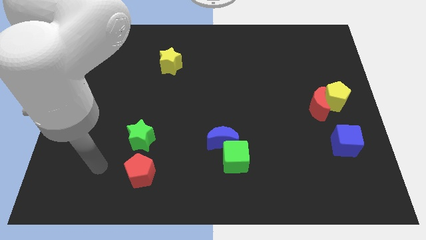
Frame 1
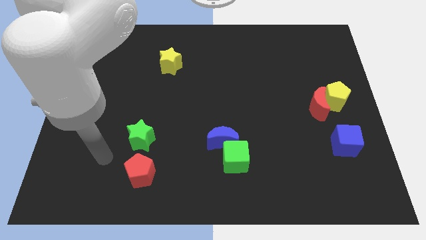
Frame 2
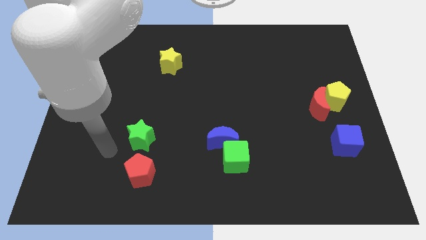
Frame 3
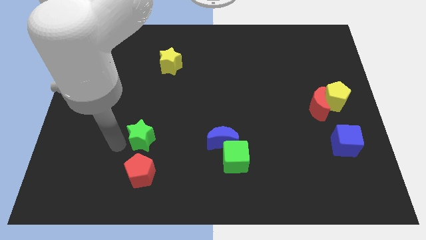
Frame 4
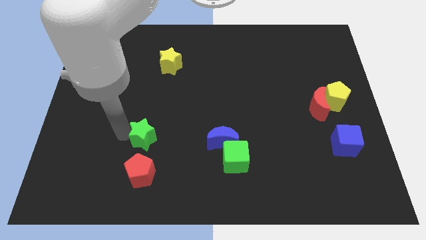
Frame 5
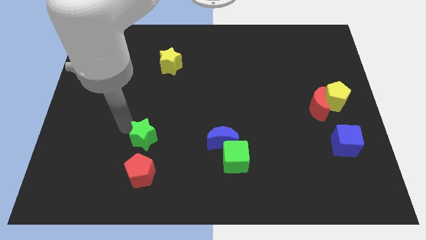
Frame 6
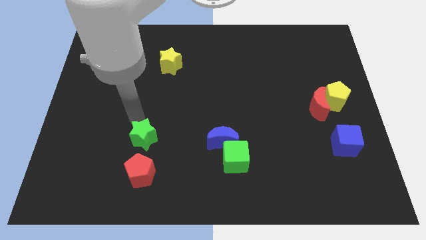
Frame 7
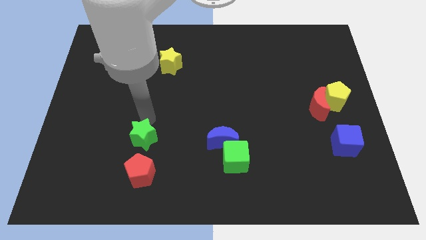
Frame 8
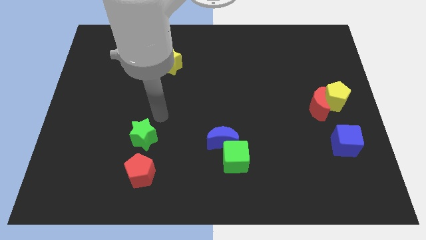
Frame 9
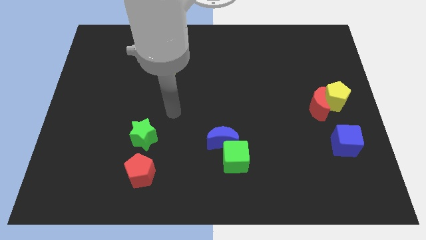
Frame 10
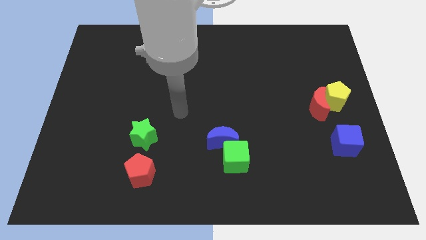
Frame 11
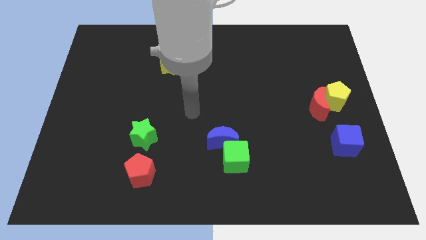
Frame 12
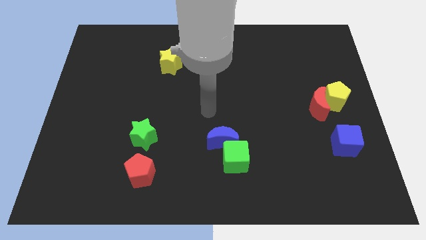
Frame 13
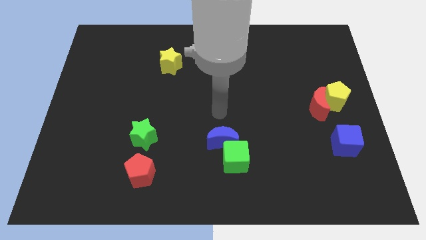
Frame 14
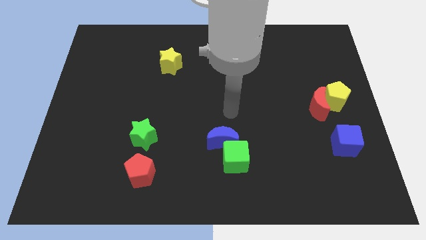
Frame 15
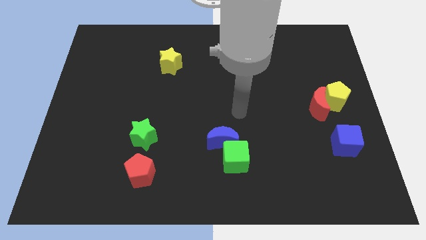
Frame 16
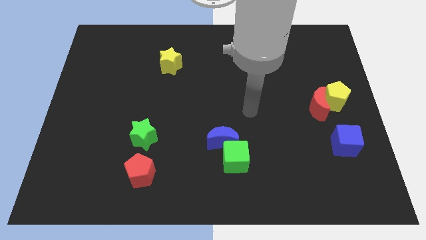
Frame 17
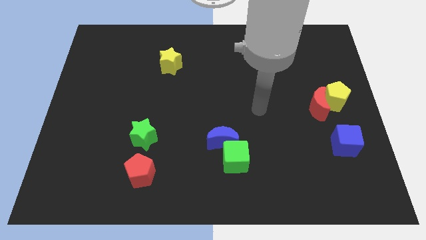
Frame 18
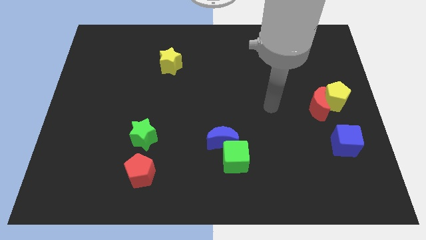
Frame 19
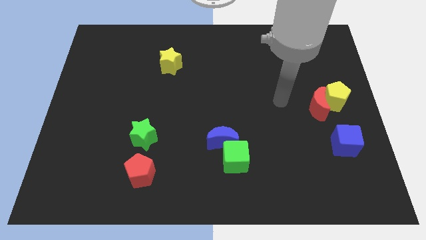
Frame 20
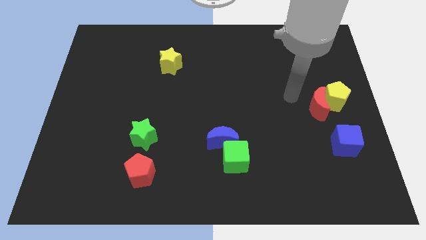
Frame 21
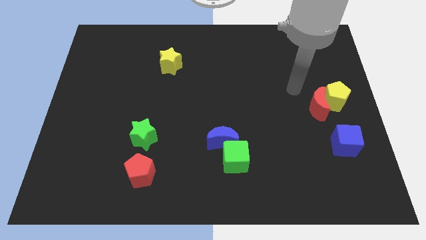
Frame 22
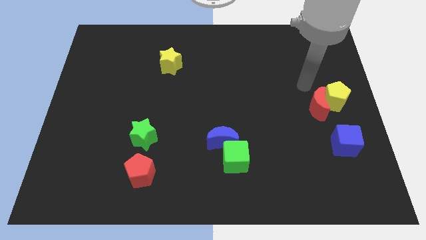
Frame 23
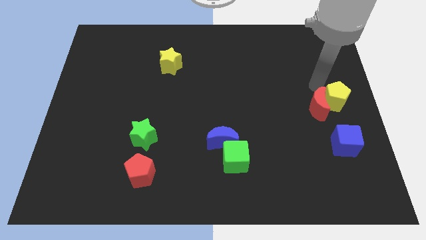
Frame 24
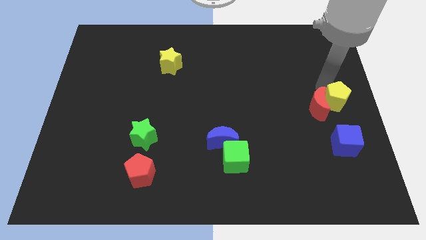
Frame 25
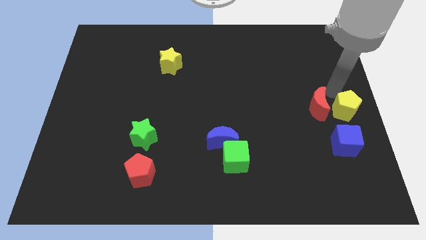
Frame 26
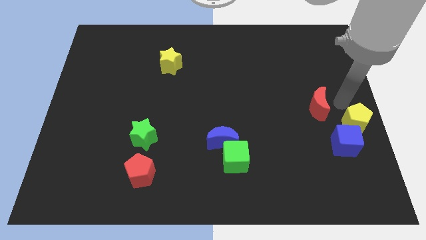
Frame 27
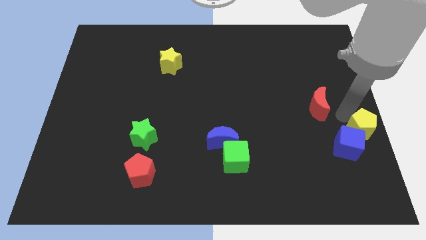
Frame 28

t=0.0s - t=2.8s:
pull the red moon apart from the yellow pentagon

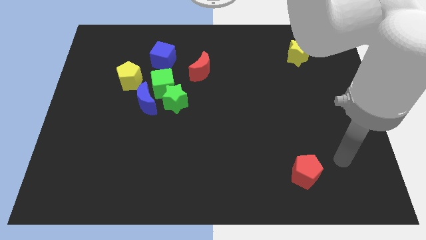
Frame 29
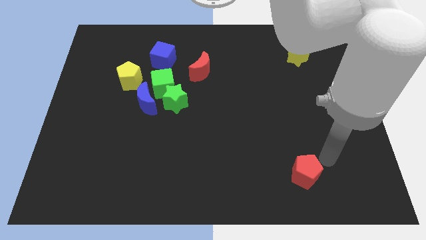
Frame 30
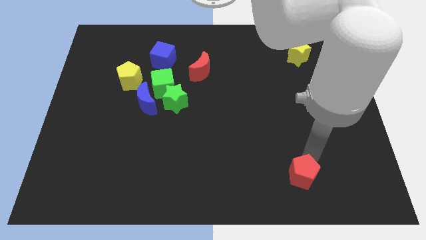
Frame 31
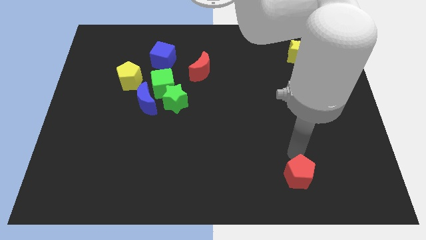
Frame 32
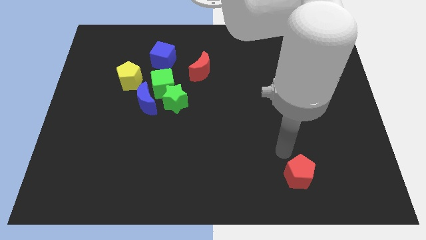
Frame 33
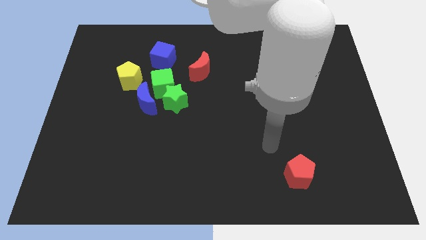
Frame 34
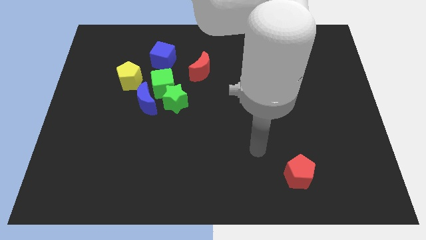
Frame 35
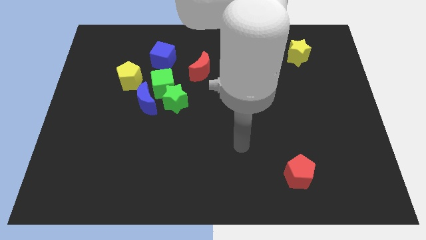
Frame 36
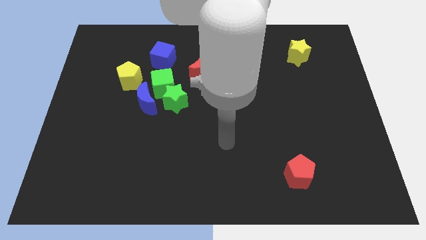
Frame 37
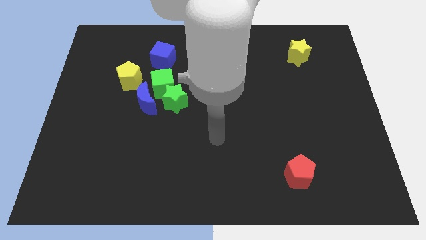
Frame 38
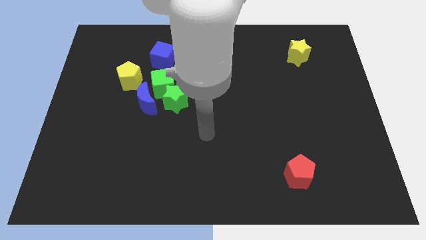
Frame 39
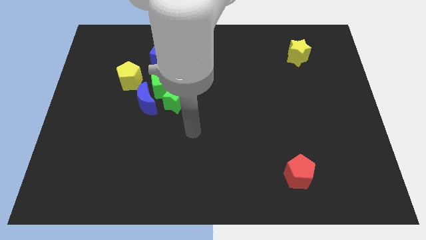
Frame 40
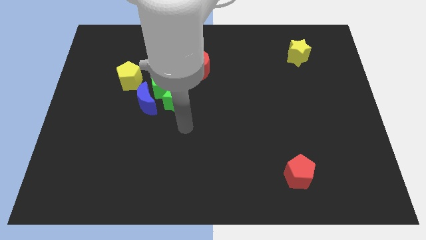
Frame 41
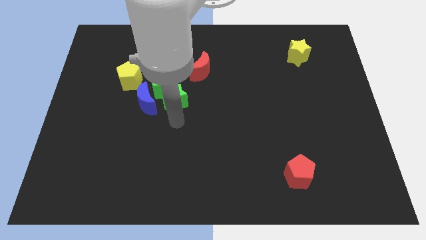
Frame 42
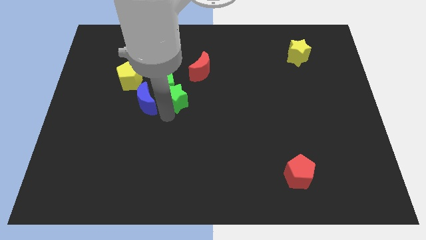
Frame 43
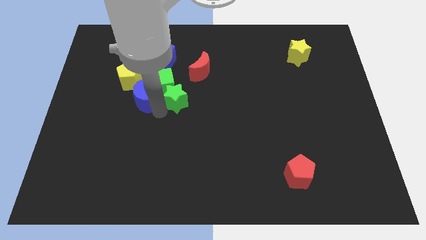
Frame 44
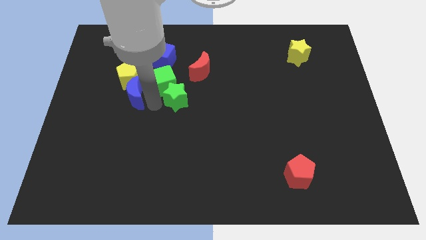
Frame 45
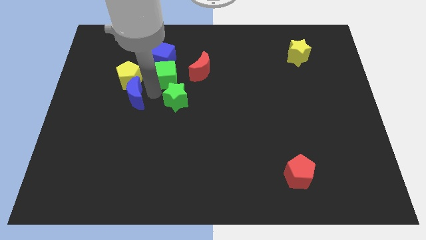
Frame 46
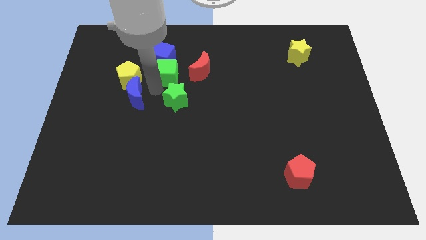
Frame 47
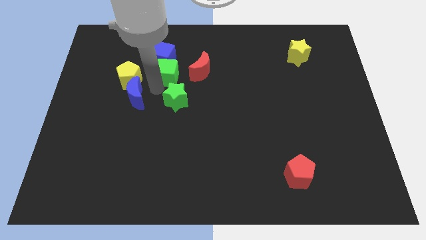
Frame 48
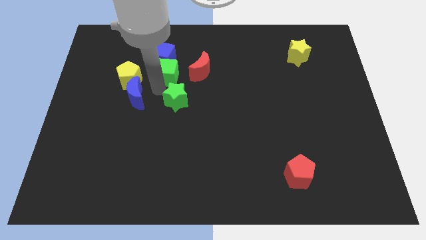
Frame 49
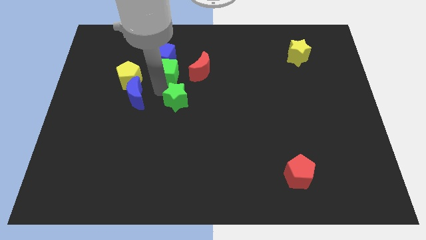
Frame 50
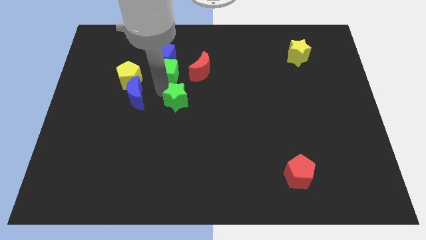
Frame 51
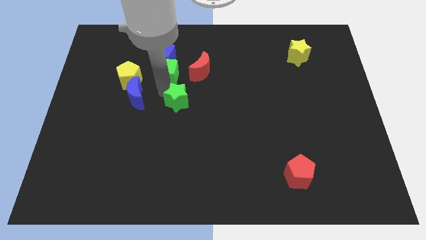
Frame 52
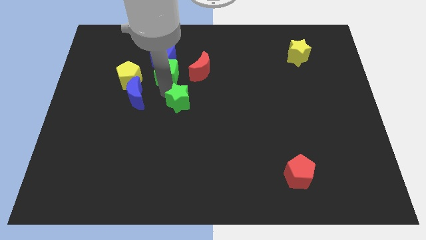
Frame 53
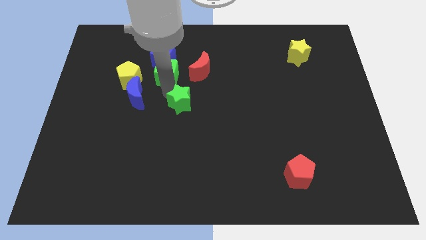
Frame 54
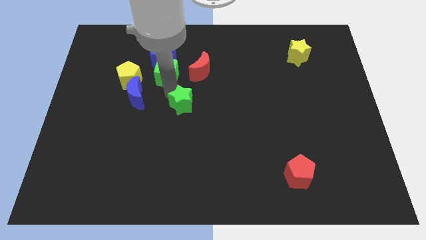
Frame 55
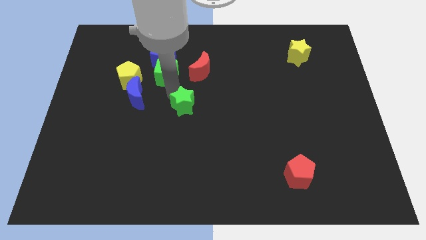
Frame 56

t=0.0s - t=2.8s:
pull the green star apart from the green cube and blue moon

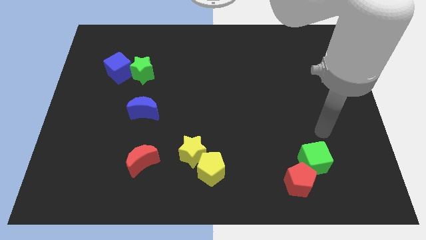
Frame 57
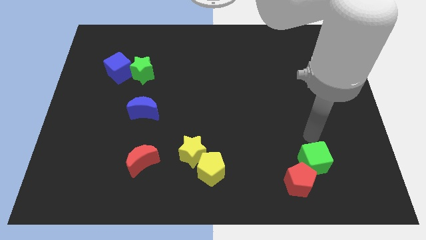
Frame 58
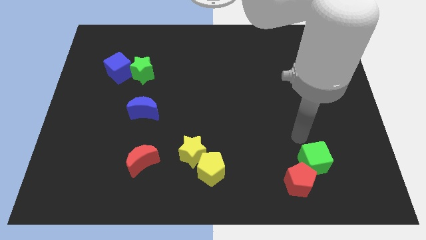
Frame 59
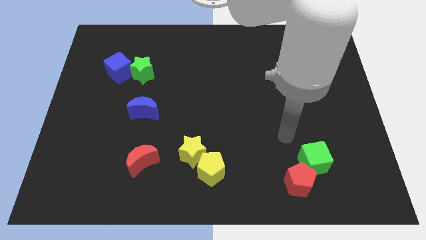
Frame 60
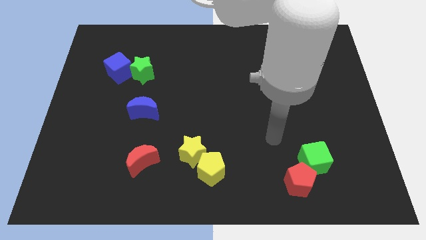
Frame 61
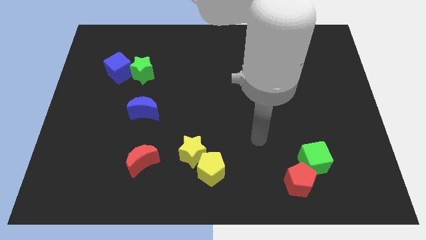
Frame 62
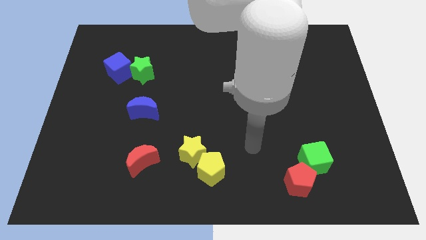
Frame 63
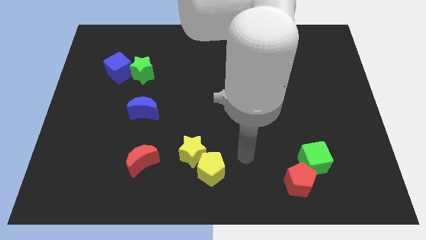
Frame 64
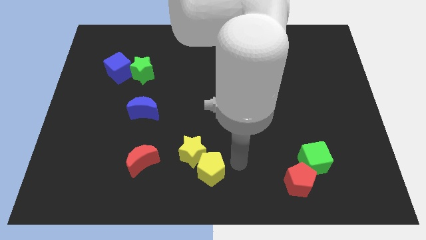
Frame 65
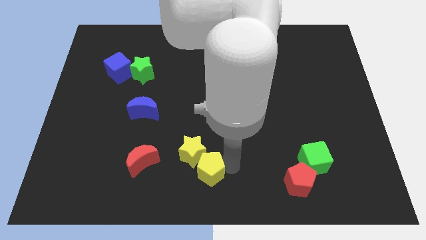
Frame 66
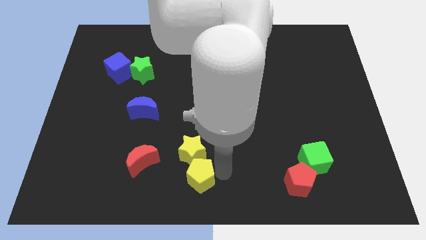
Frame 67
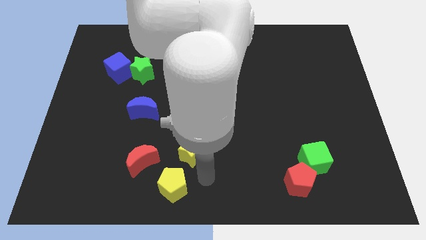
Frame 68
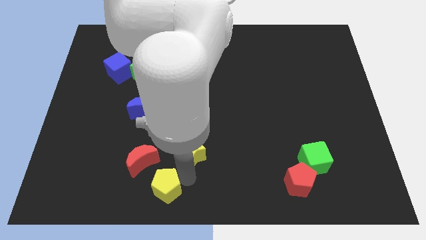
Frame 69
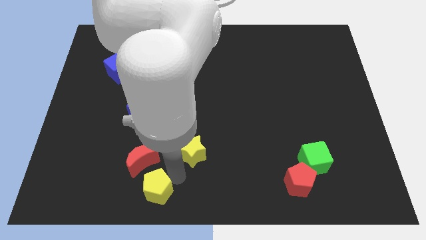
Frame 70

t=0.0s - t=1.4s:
pull the yellow star apart from the yellow pentagon

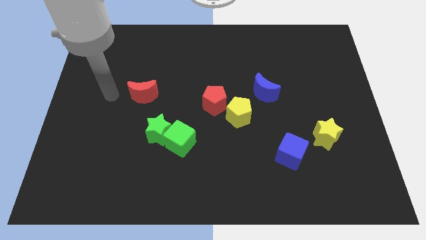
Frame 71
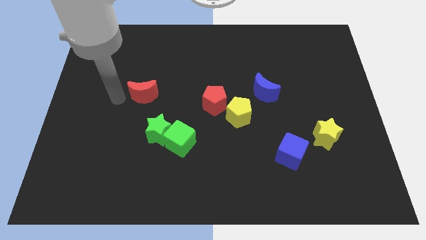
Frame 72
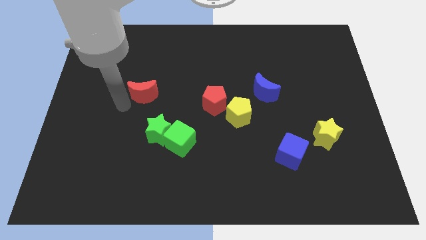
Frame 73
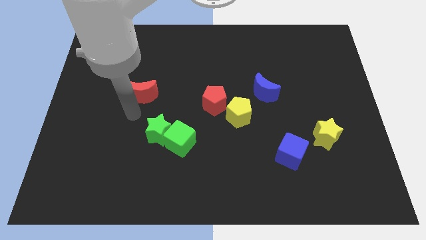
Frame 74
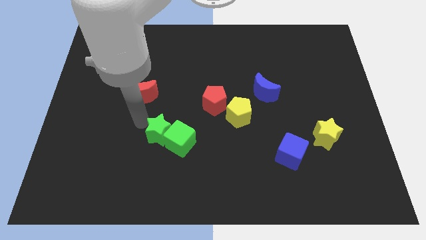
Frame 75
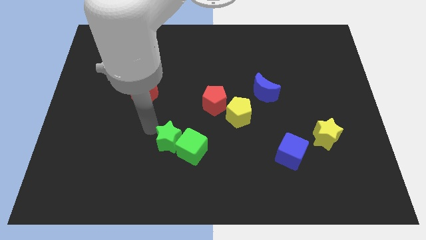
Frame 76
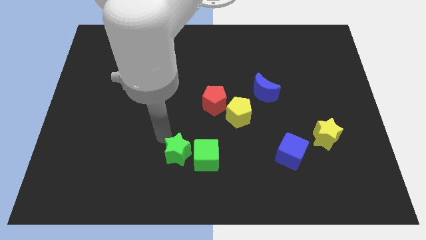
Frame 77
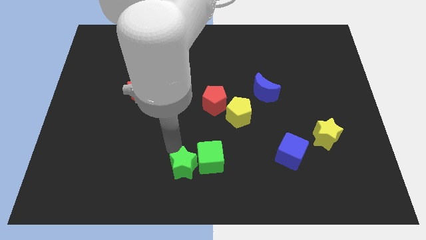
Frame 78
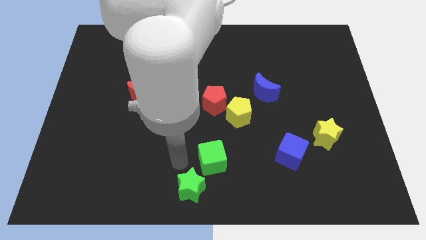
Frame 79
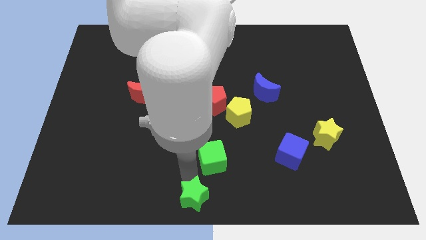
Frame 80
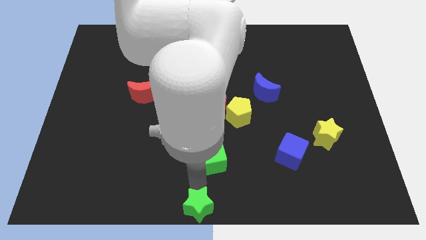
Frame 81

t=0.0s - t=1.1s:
pull the green cube apart from the green star

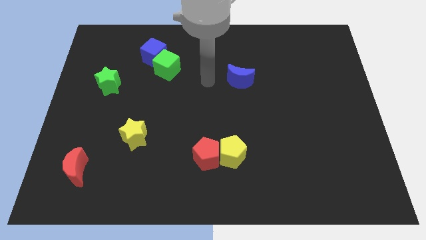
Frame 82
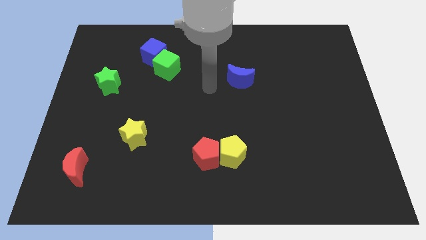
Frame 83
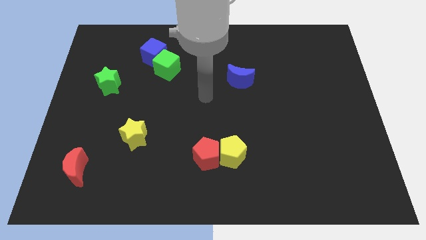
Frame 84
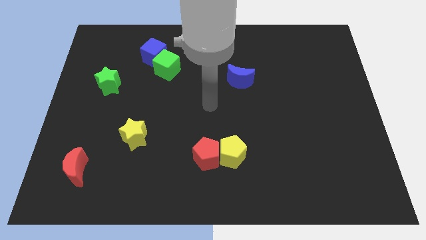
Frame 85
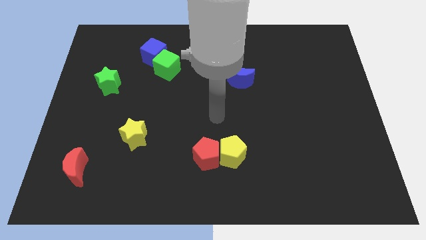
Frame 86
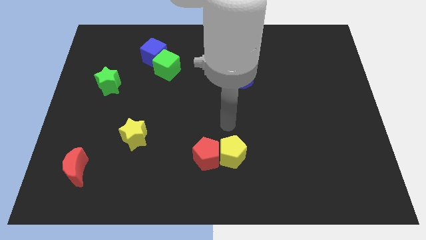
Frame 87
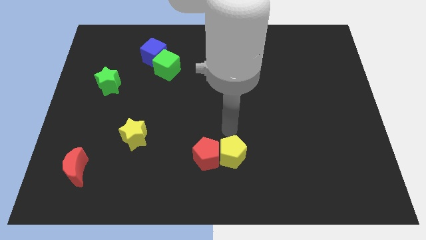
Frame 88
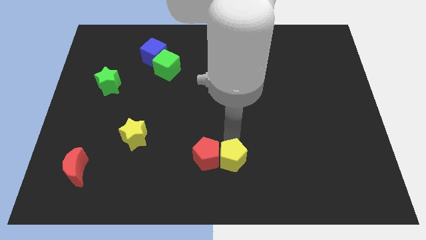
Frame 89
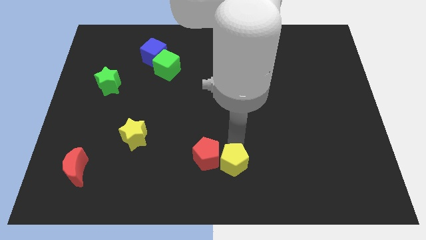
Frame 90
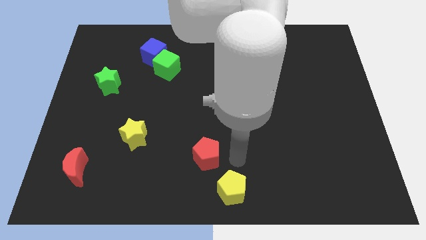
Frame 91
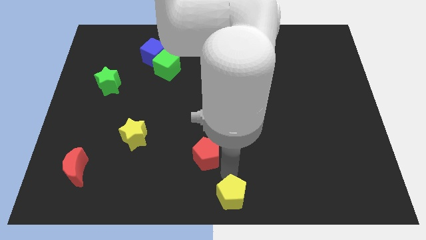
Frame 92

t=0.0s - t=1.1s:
separate the red pentagon from the yellow pentagon

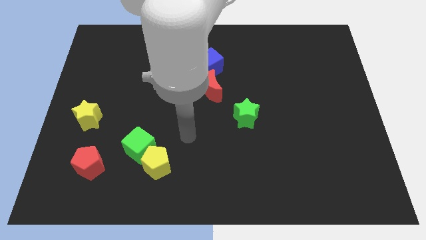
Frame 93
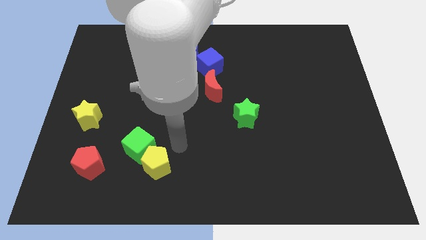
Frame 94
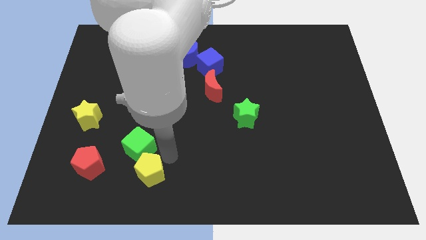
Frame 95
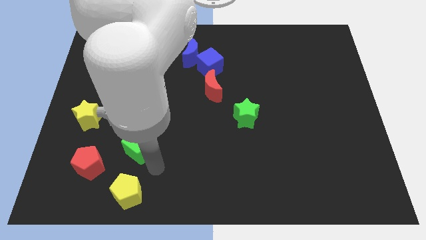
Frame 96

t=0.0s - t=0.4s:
pull the green cube apart from the yellow pentagon
